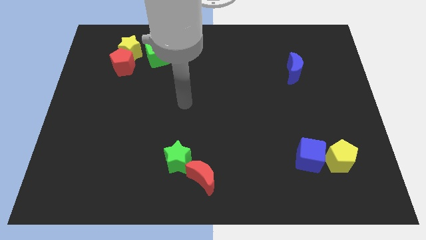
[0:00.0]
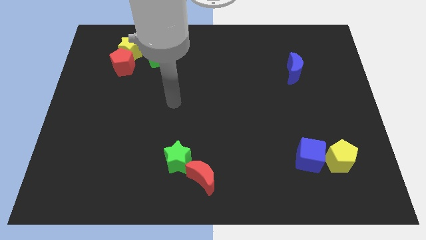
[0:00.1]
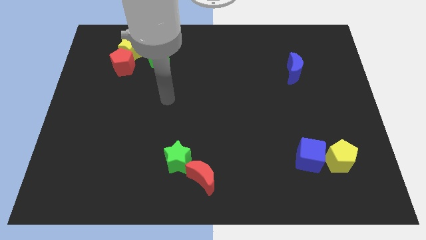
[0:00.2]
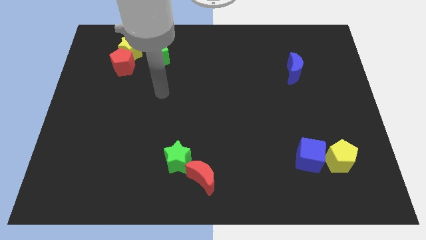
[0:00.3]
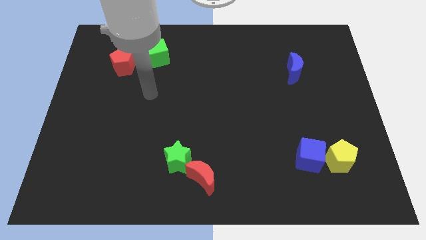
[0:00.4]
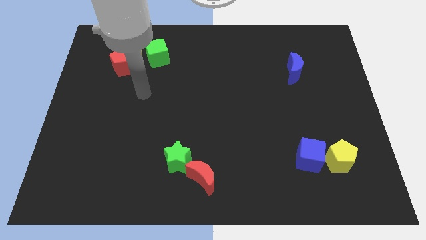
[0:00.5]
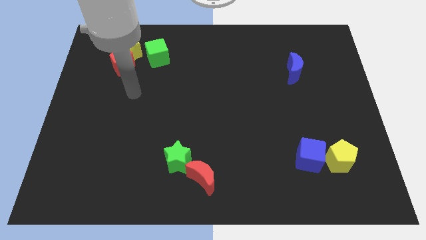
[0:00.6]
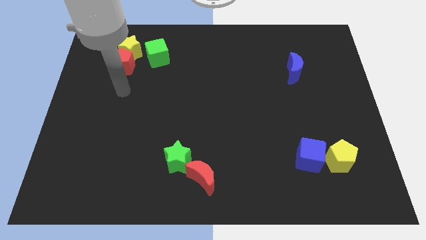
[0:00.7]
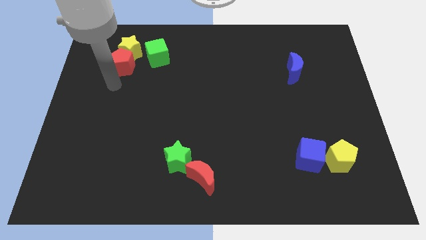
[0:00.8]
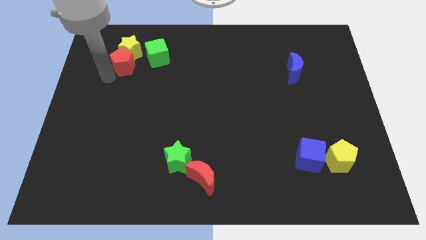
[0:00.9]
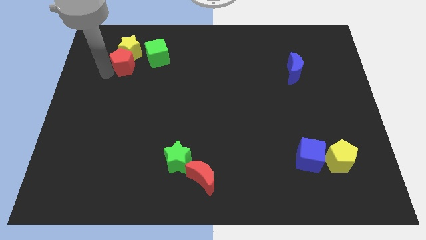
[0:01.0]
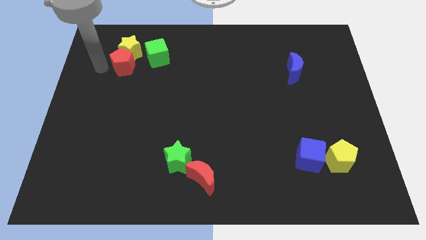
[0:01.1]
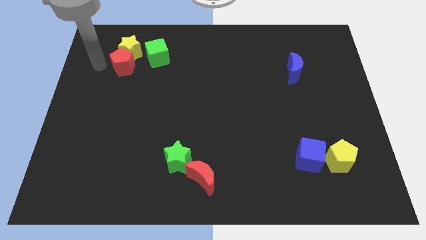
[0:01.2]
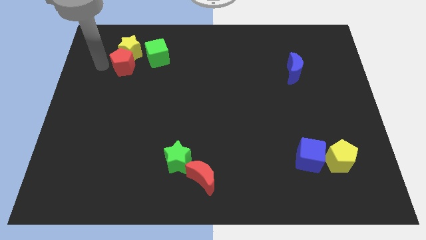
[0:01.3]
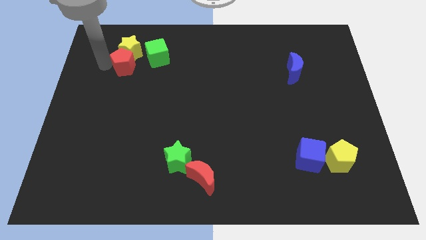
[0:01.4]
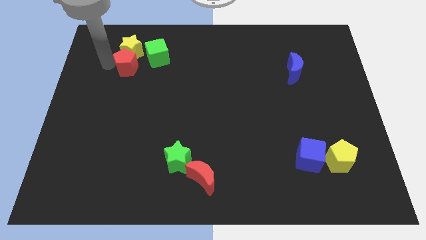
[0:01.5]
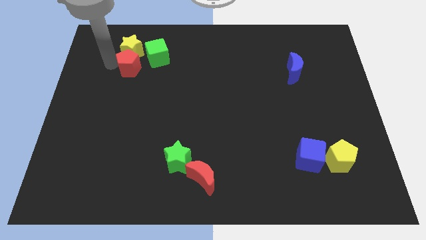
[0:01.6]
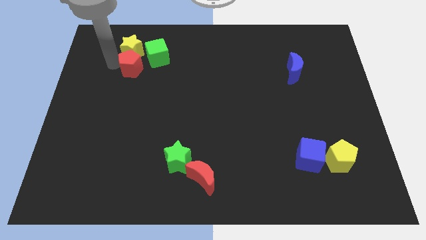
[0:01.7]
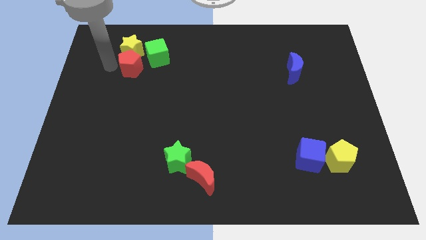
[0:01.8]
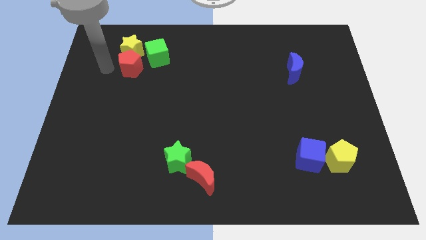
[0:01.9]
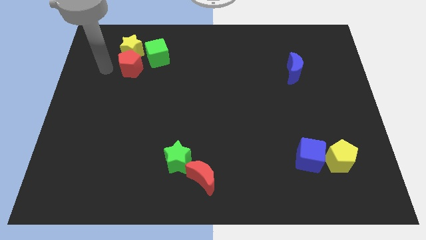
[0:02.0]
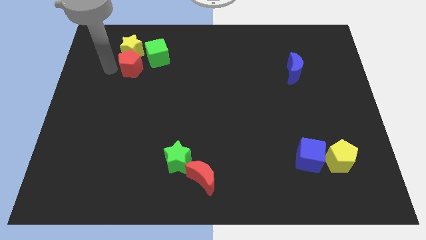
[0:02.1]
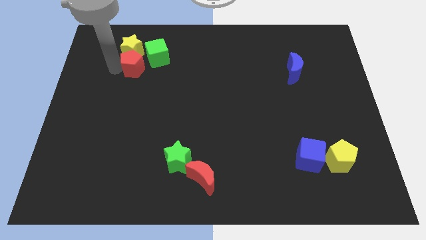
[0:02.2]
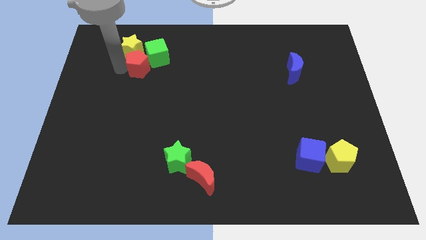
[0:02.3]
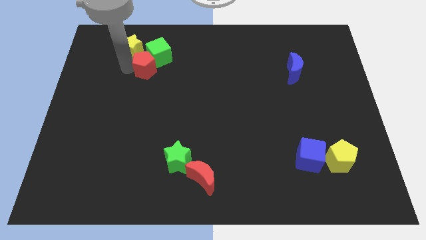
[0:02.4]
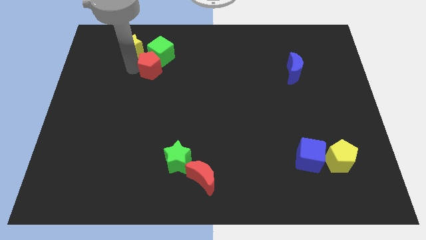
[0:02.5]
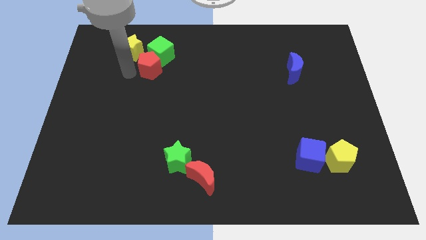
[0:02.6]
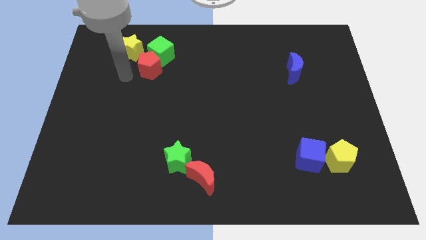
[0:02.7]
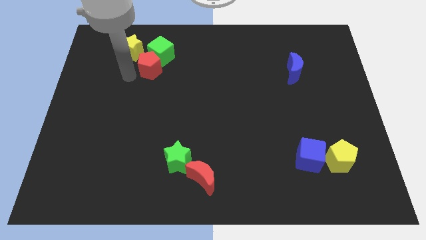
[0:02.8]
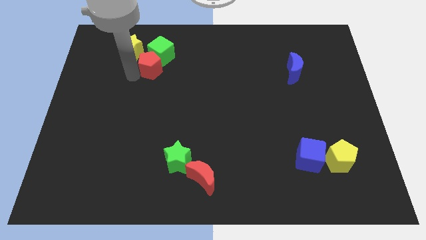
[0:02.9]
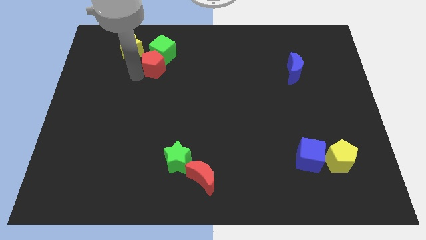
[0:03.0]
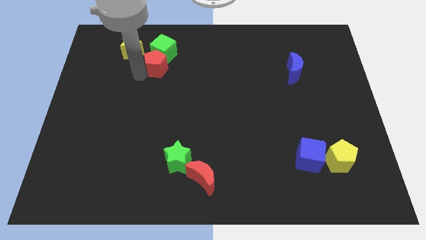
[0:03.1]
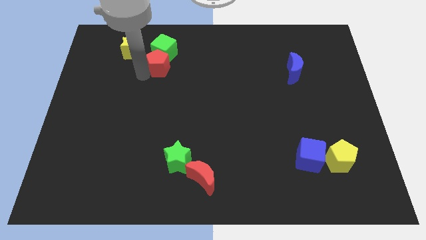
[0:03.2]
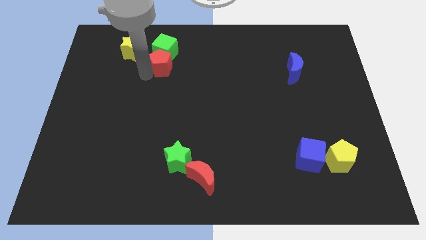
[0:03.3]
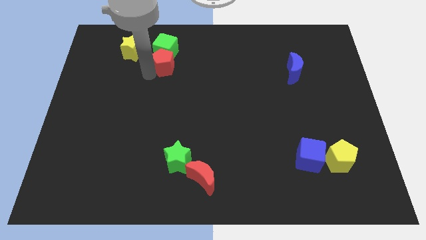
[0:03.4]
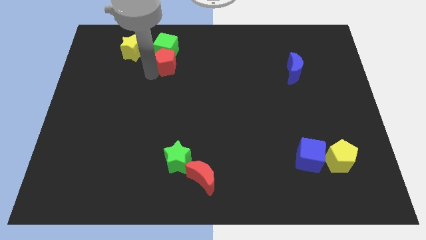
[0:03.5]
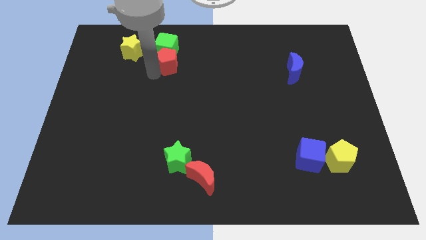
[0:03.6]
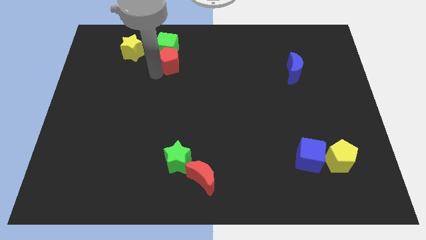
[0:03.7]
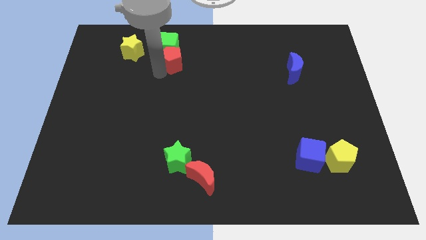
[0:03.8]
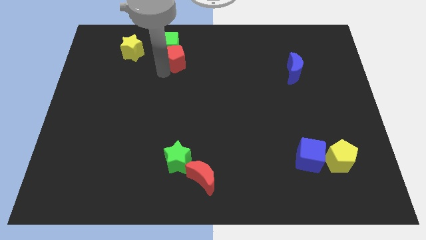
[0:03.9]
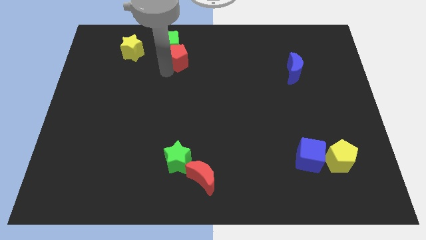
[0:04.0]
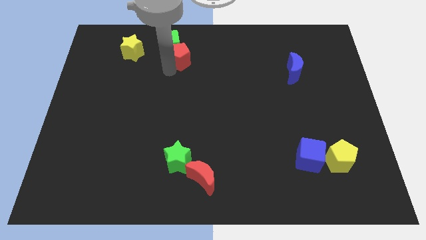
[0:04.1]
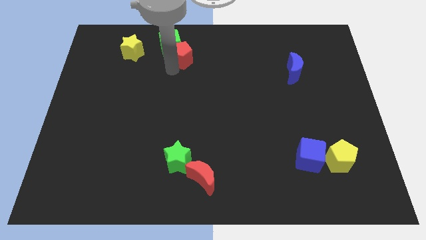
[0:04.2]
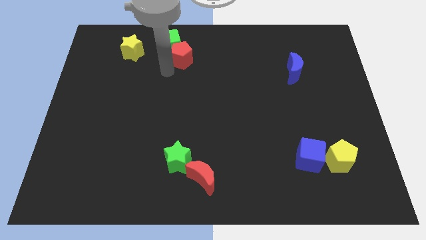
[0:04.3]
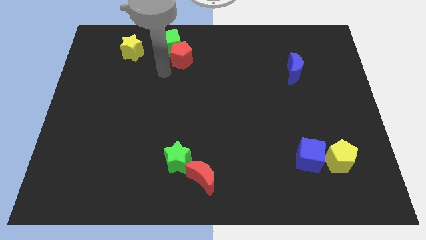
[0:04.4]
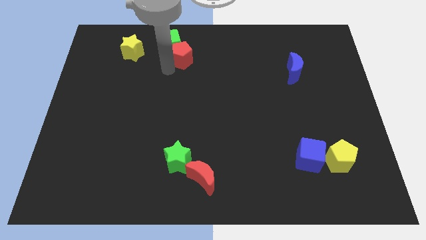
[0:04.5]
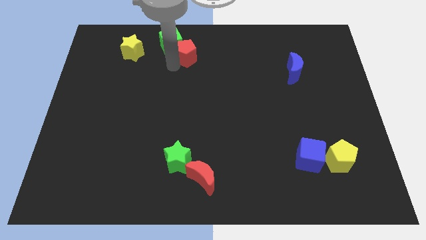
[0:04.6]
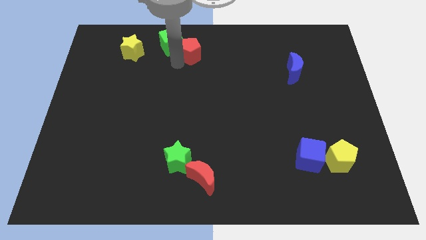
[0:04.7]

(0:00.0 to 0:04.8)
push the red pentagon to the top side

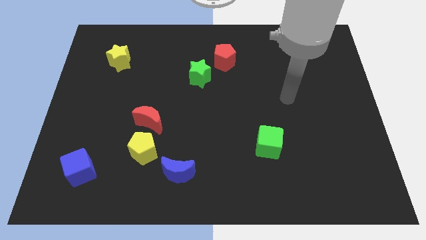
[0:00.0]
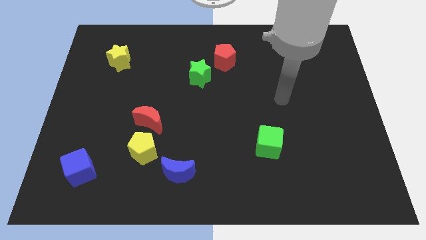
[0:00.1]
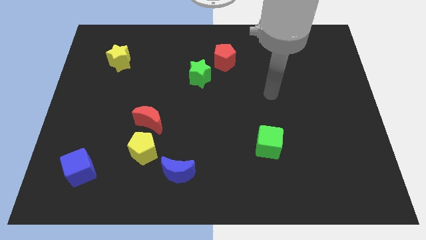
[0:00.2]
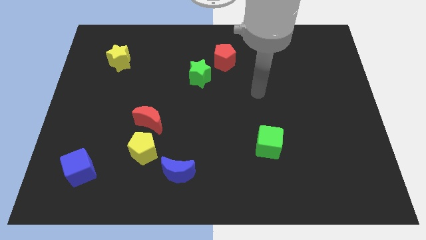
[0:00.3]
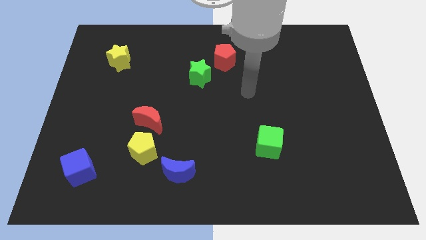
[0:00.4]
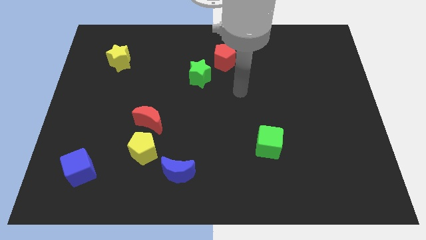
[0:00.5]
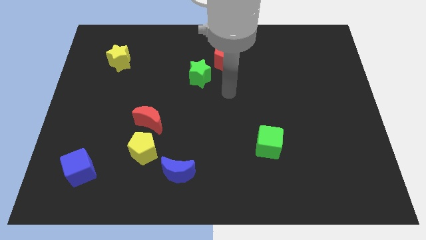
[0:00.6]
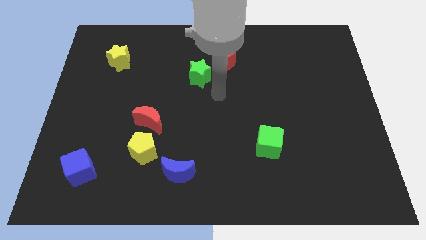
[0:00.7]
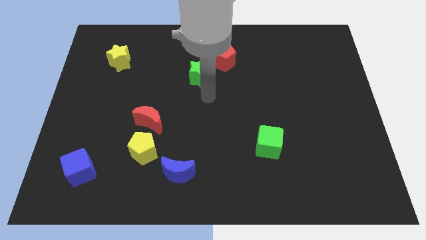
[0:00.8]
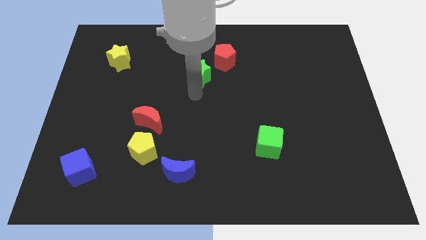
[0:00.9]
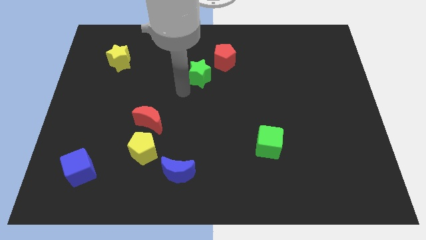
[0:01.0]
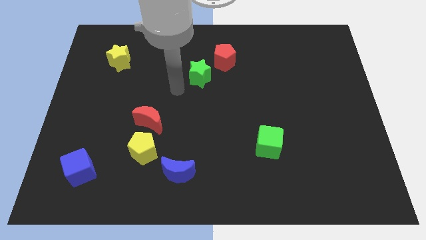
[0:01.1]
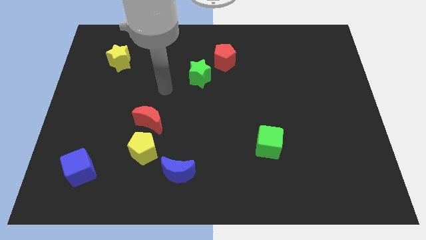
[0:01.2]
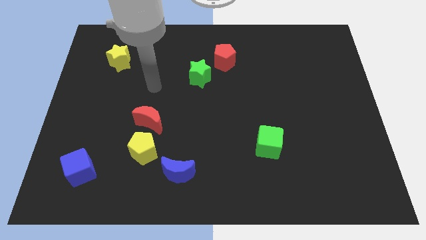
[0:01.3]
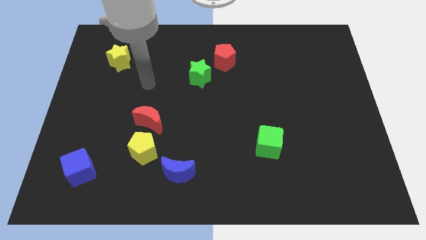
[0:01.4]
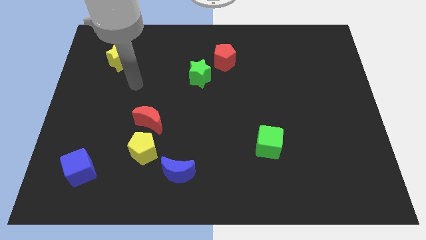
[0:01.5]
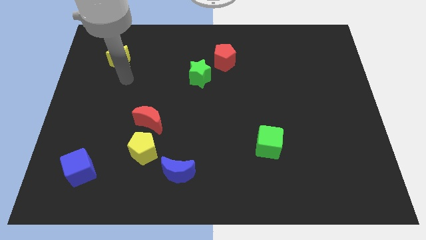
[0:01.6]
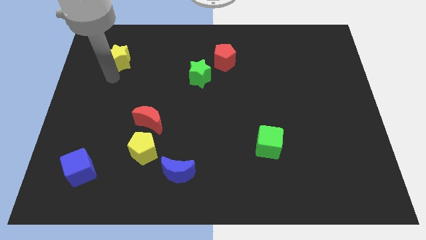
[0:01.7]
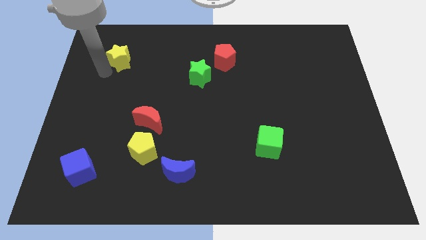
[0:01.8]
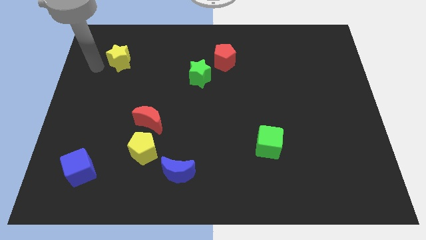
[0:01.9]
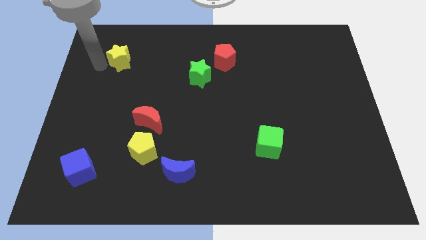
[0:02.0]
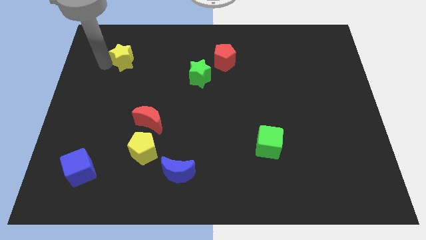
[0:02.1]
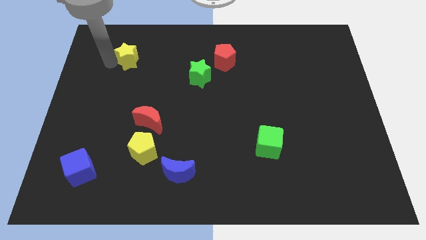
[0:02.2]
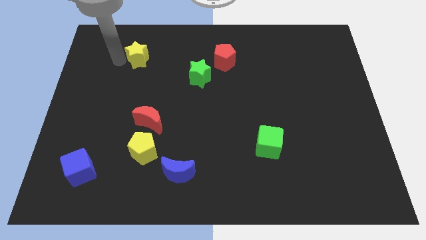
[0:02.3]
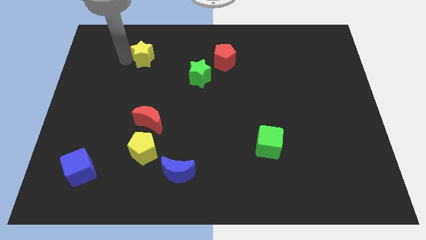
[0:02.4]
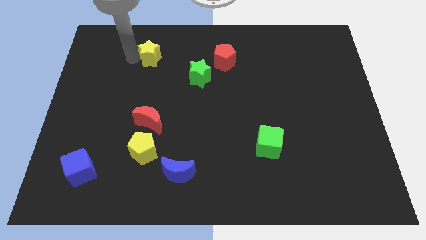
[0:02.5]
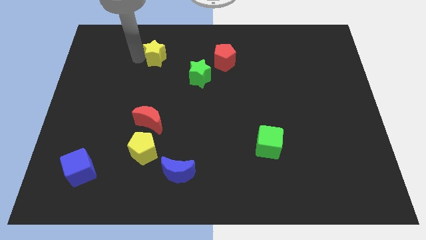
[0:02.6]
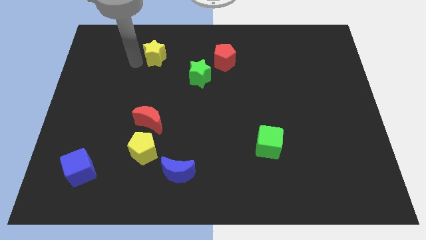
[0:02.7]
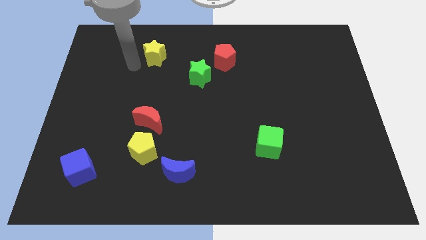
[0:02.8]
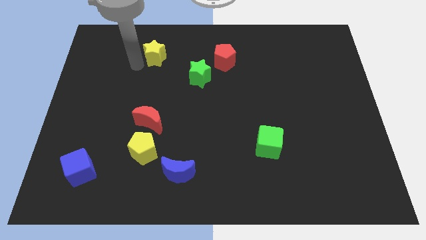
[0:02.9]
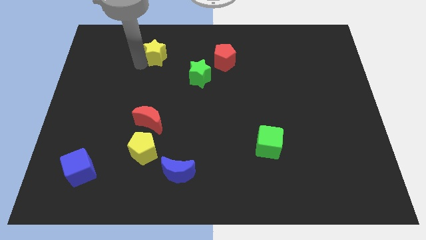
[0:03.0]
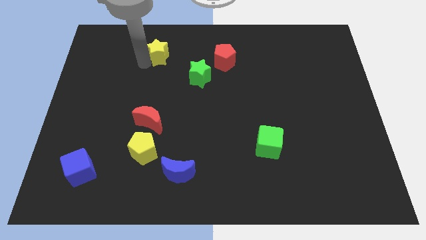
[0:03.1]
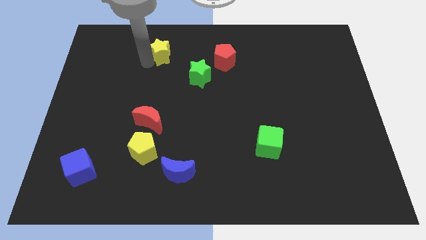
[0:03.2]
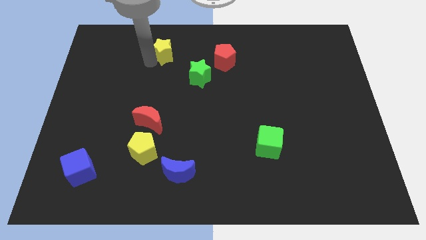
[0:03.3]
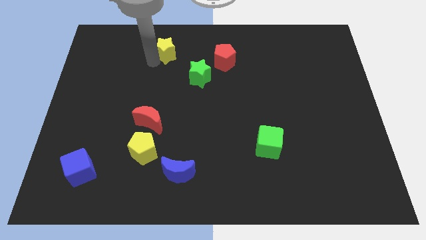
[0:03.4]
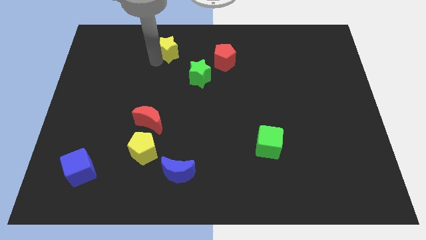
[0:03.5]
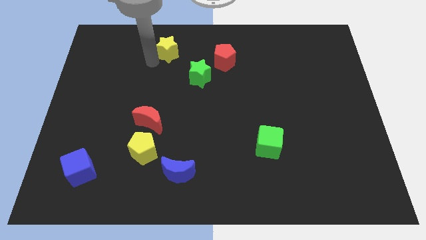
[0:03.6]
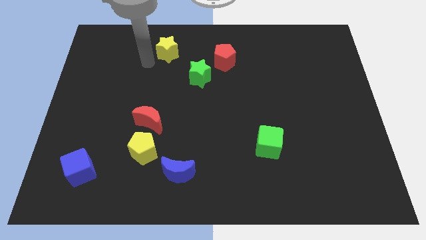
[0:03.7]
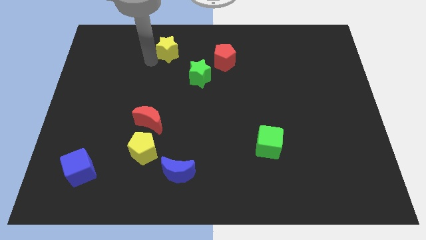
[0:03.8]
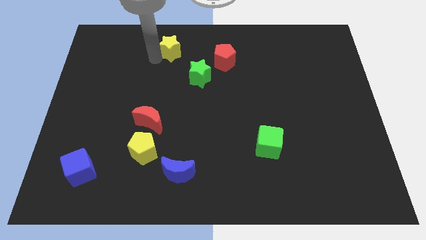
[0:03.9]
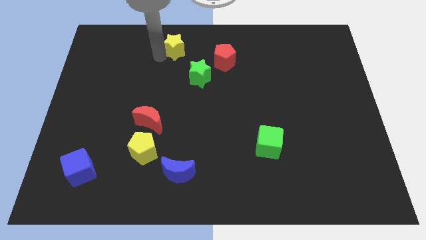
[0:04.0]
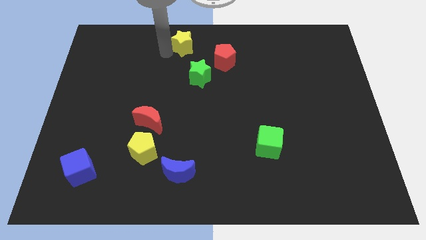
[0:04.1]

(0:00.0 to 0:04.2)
slide the yellow star to the top side
